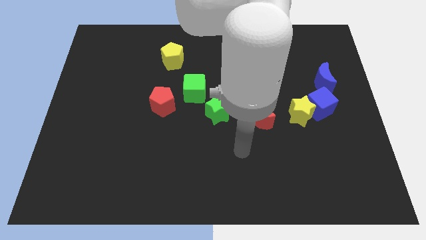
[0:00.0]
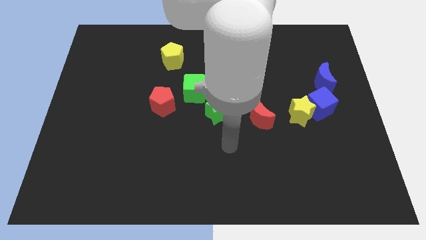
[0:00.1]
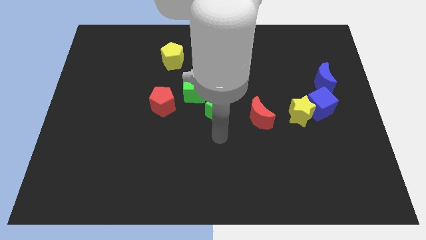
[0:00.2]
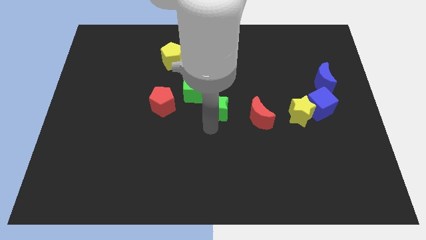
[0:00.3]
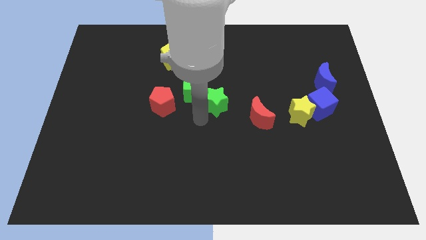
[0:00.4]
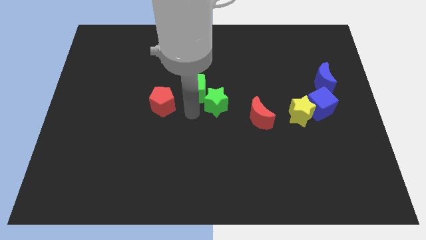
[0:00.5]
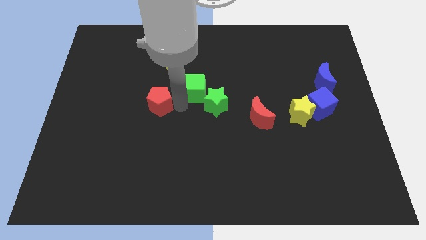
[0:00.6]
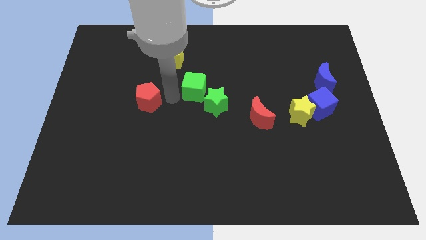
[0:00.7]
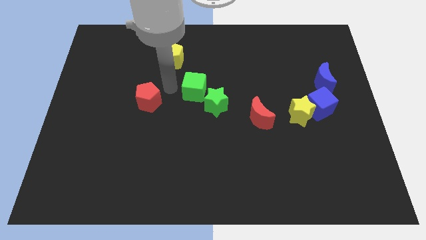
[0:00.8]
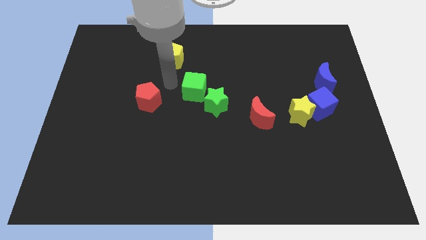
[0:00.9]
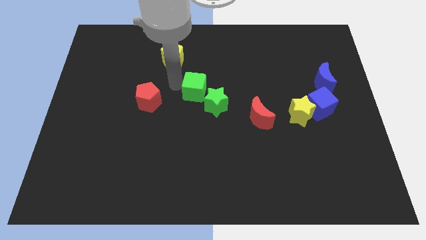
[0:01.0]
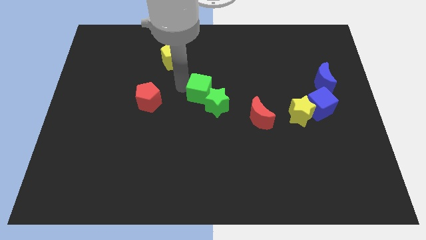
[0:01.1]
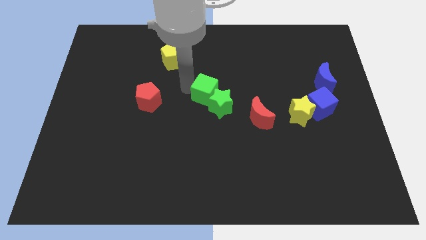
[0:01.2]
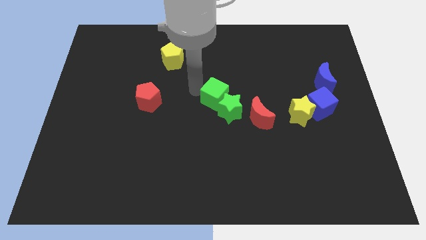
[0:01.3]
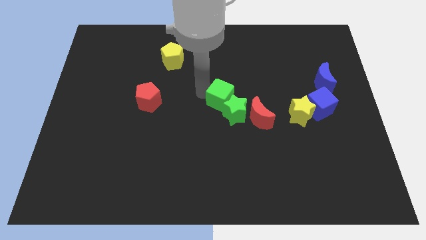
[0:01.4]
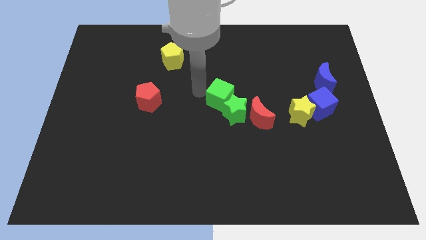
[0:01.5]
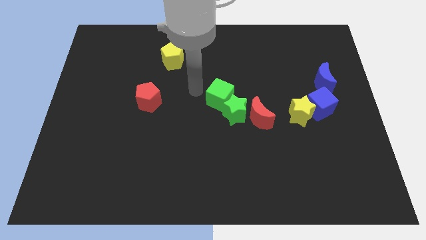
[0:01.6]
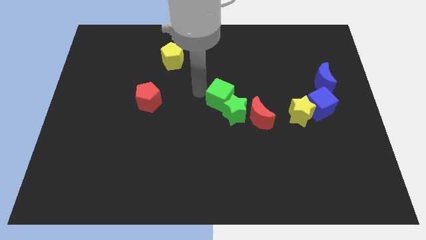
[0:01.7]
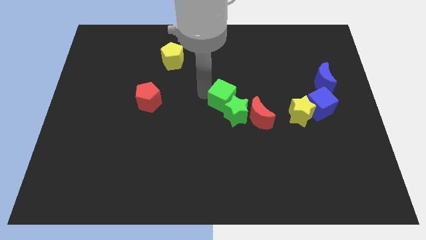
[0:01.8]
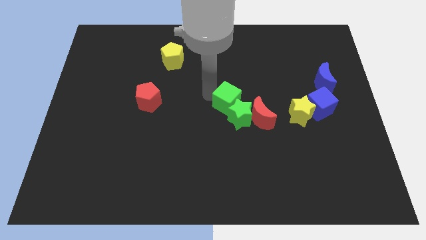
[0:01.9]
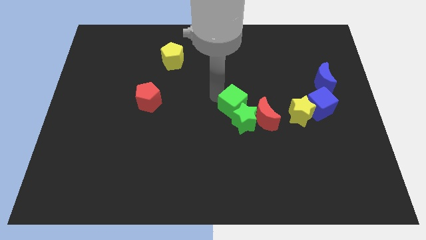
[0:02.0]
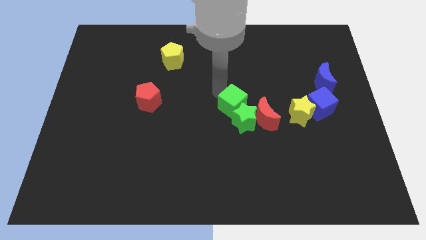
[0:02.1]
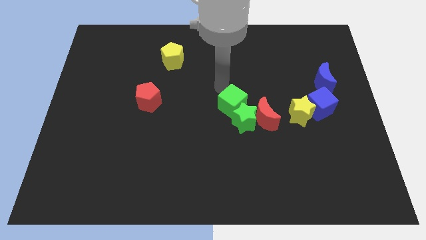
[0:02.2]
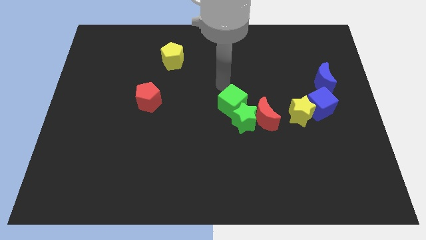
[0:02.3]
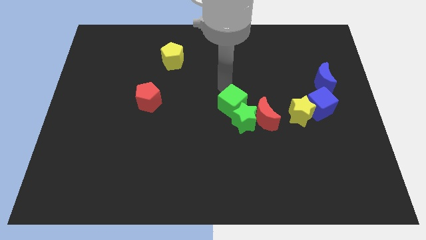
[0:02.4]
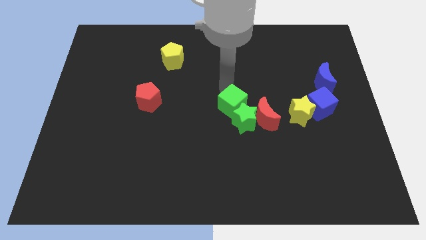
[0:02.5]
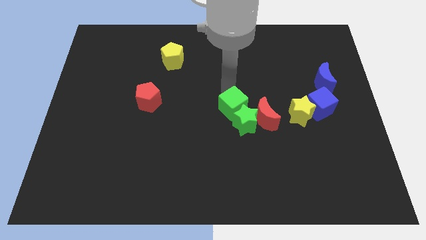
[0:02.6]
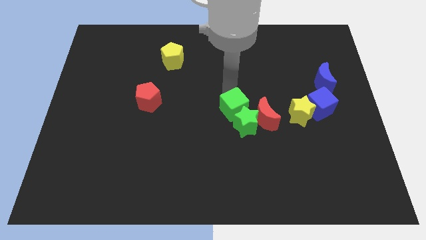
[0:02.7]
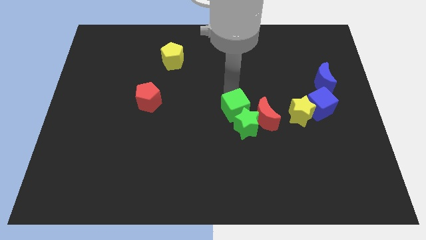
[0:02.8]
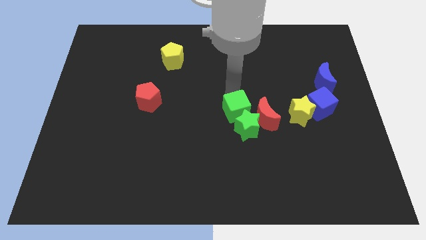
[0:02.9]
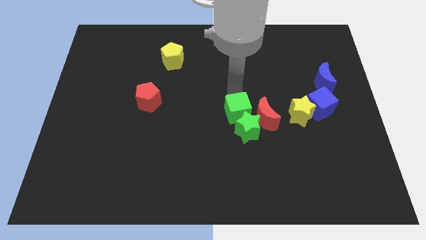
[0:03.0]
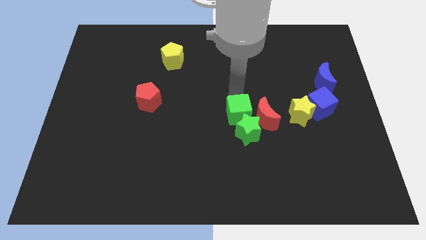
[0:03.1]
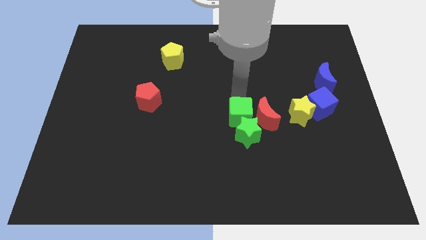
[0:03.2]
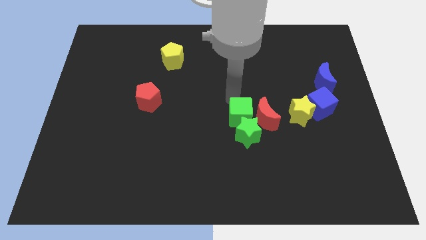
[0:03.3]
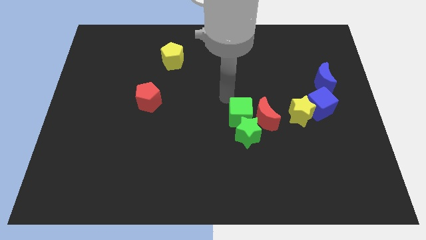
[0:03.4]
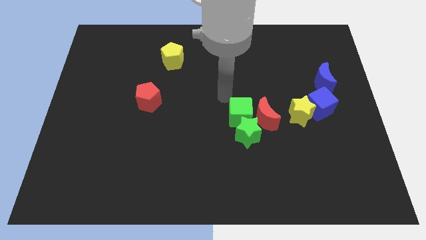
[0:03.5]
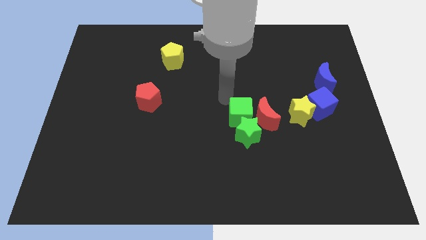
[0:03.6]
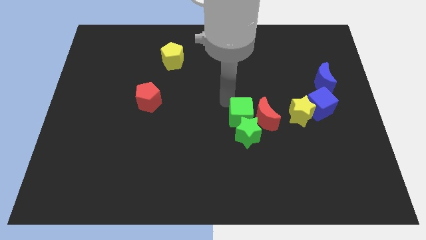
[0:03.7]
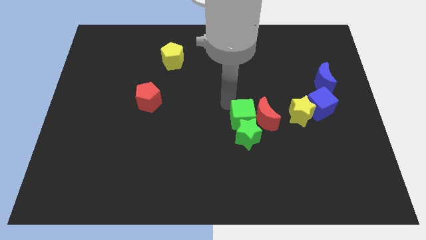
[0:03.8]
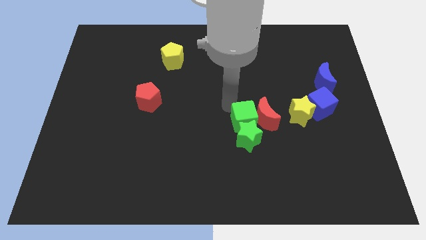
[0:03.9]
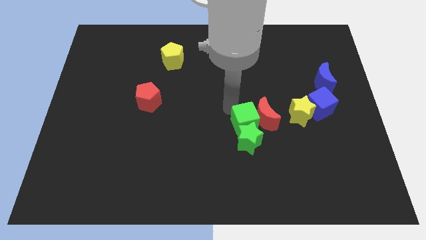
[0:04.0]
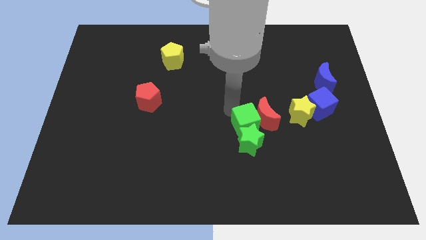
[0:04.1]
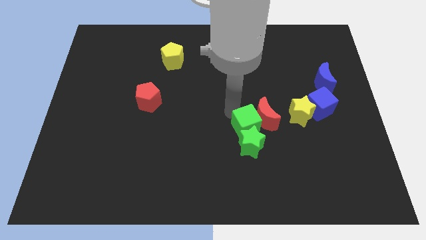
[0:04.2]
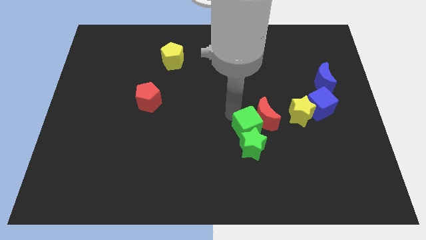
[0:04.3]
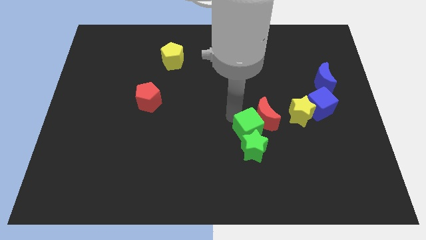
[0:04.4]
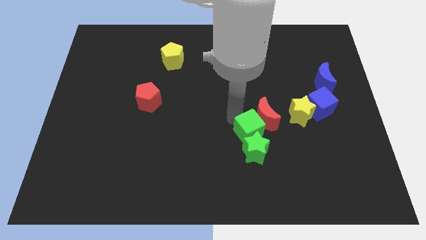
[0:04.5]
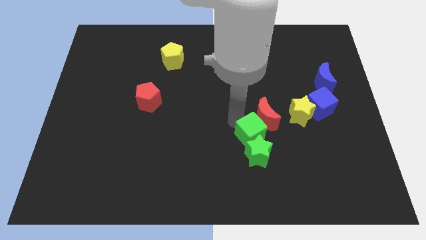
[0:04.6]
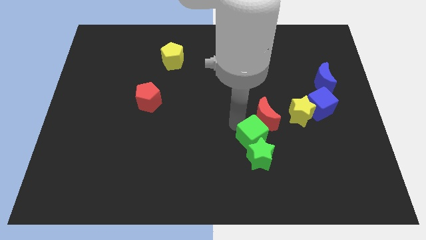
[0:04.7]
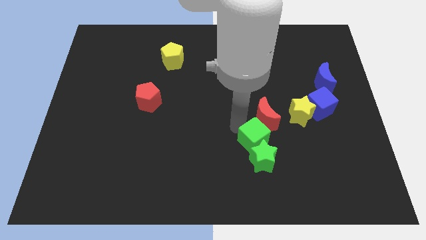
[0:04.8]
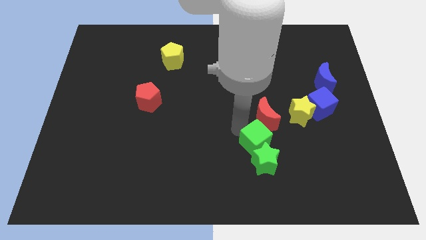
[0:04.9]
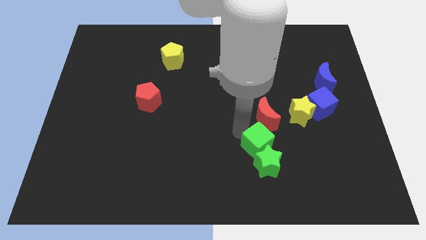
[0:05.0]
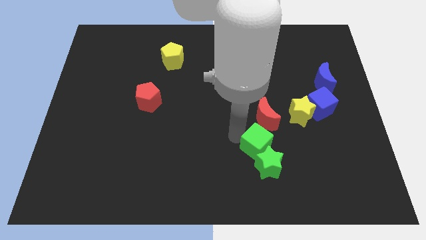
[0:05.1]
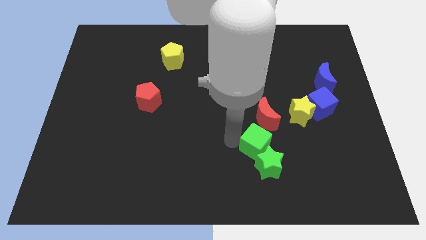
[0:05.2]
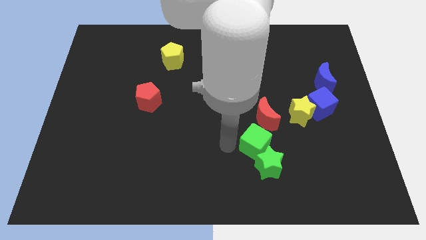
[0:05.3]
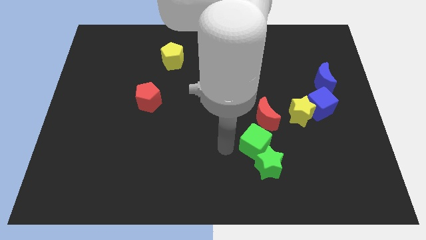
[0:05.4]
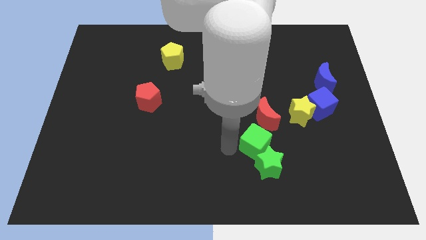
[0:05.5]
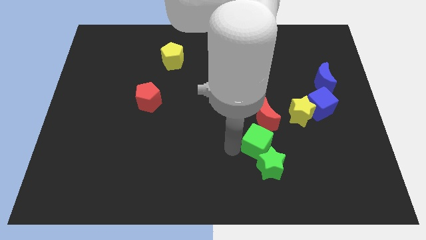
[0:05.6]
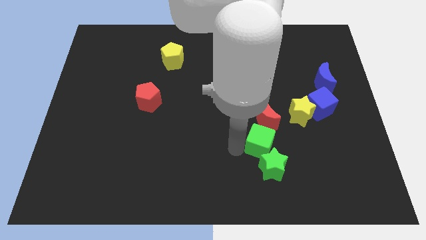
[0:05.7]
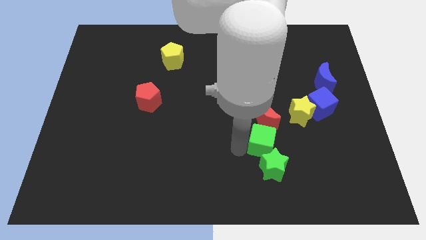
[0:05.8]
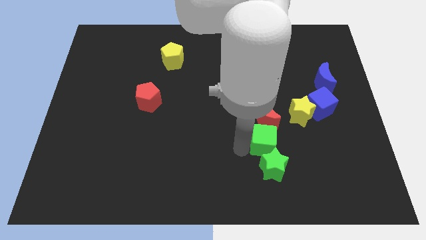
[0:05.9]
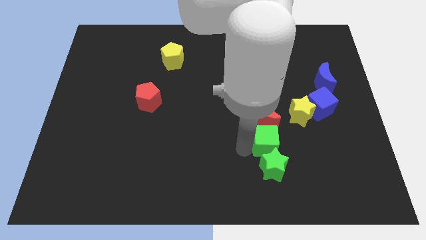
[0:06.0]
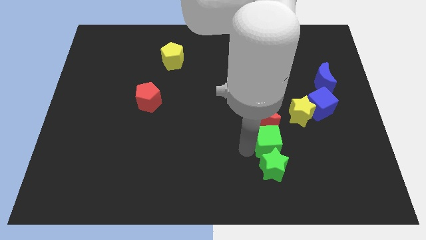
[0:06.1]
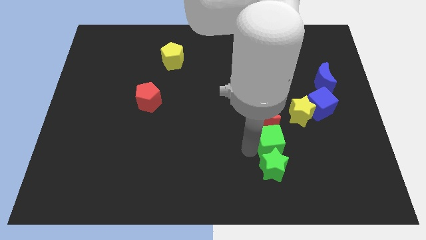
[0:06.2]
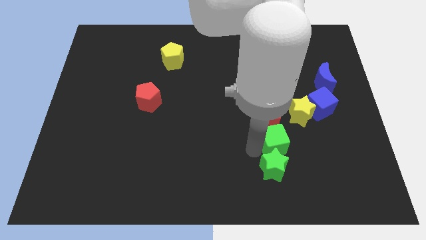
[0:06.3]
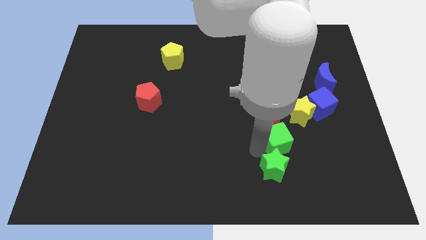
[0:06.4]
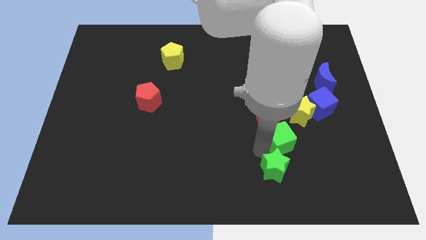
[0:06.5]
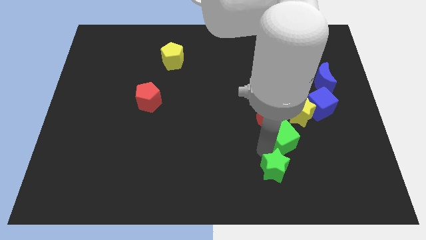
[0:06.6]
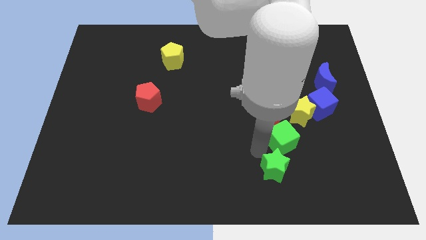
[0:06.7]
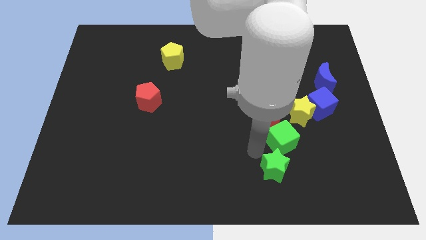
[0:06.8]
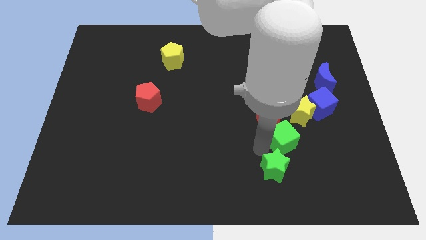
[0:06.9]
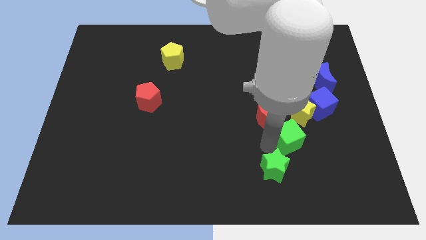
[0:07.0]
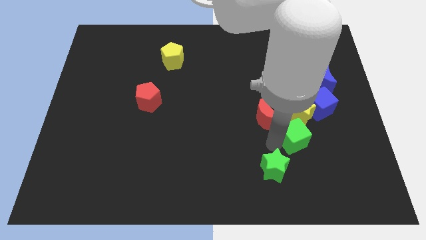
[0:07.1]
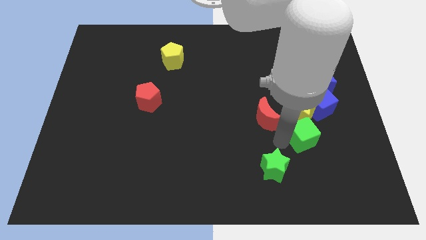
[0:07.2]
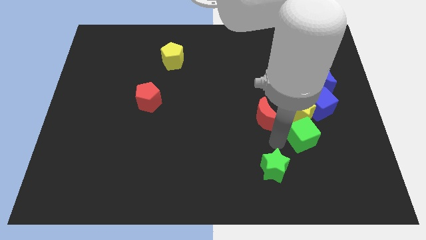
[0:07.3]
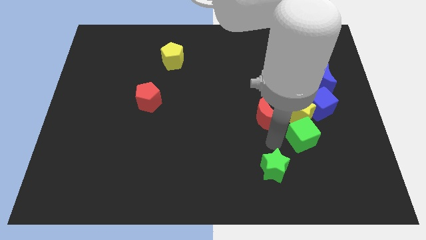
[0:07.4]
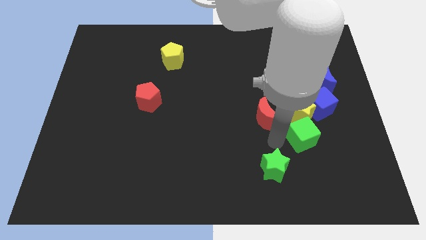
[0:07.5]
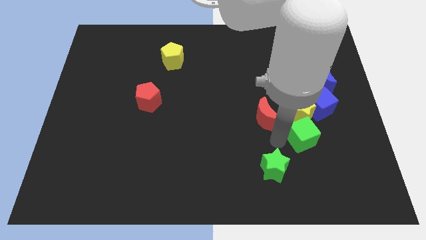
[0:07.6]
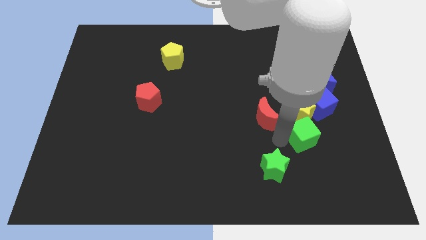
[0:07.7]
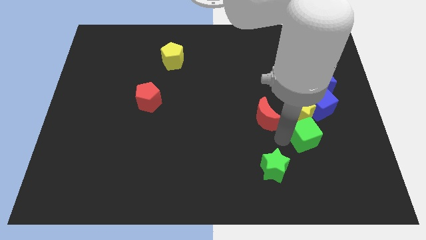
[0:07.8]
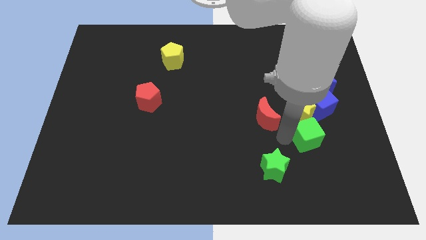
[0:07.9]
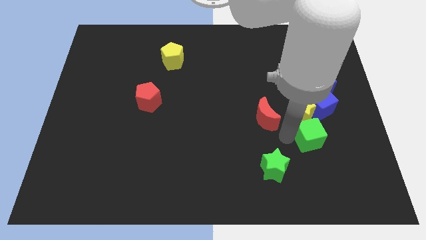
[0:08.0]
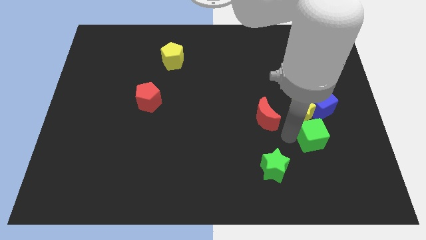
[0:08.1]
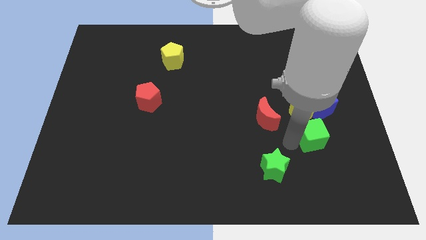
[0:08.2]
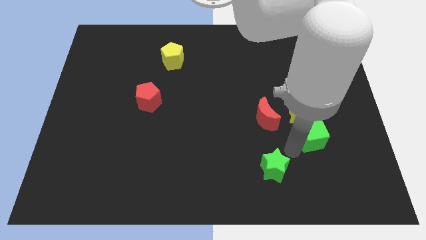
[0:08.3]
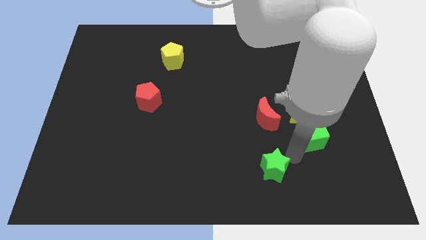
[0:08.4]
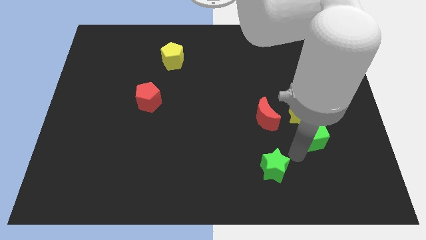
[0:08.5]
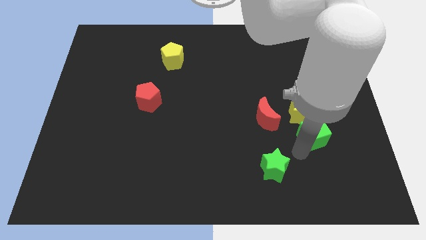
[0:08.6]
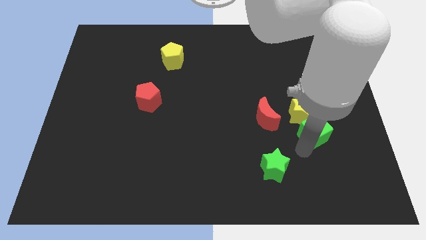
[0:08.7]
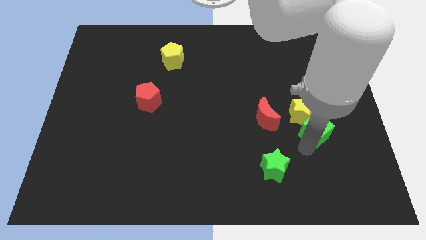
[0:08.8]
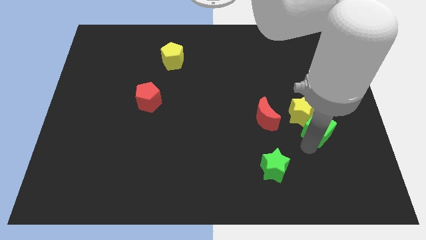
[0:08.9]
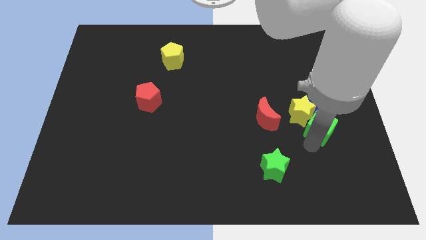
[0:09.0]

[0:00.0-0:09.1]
push the green cube to the bottom of the blue moon
